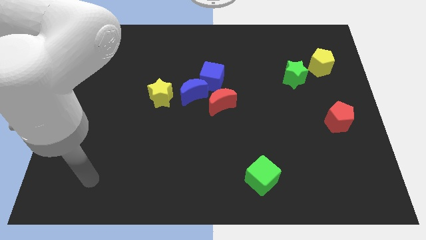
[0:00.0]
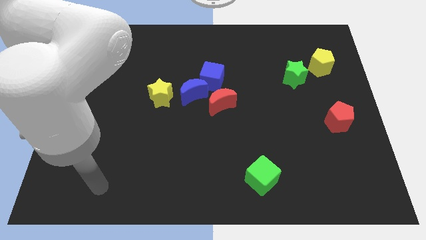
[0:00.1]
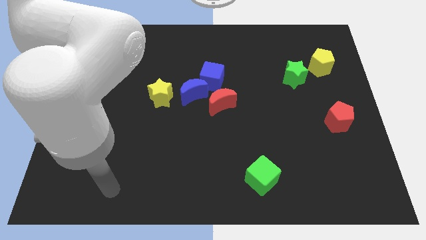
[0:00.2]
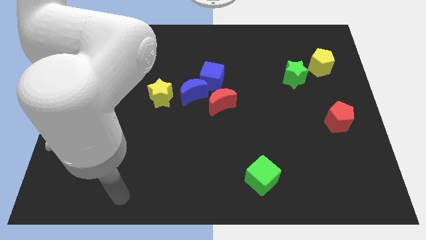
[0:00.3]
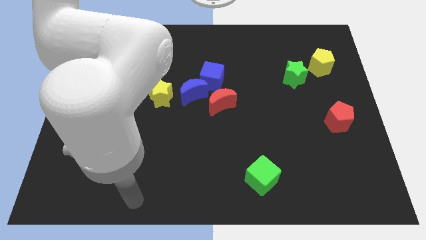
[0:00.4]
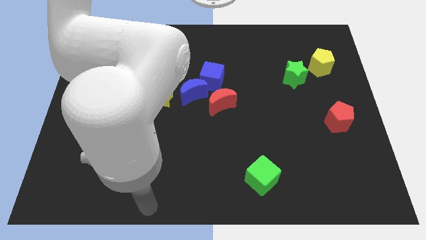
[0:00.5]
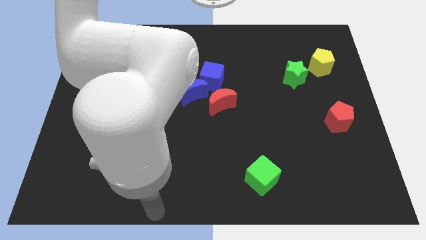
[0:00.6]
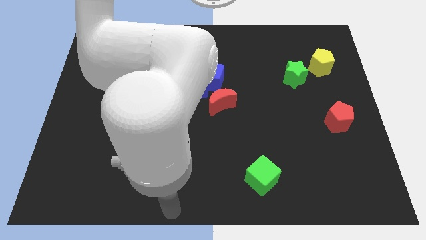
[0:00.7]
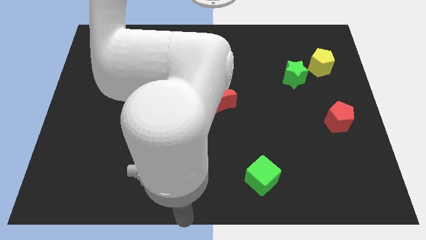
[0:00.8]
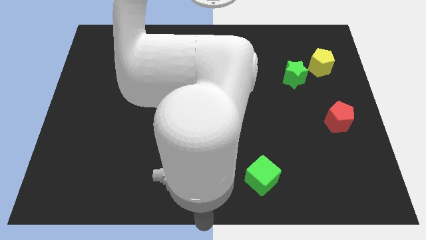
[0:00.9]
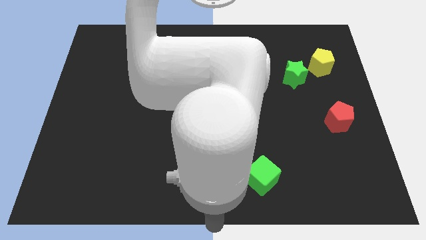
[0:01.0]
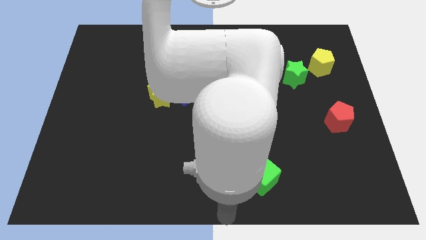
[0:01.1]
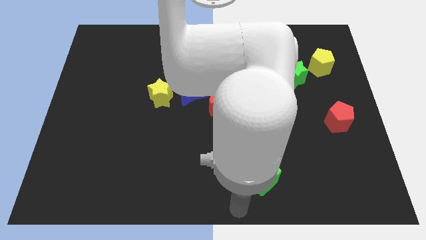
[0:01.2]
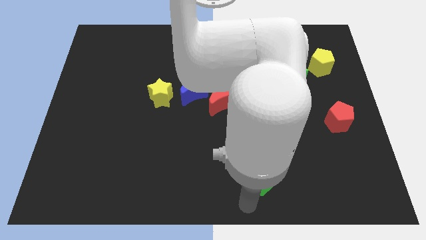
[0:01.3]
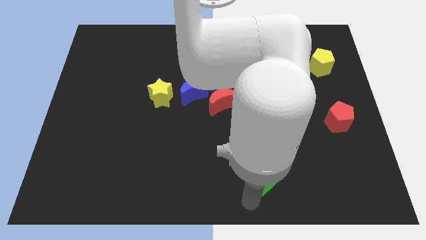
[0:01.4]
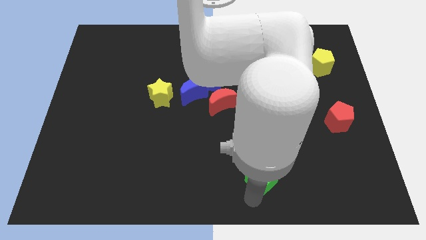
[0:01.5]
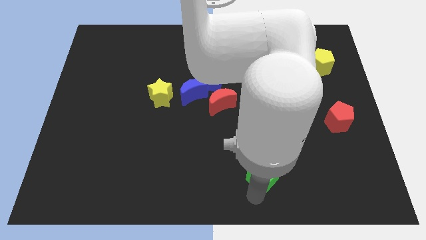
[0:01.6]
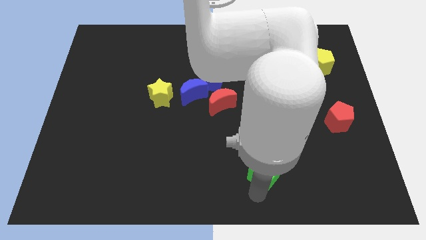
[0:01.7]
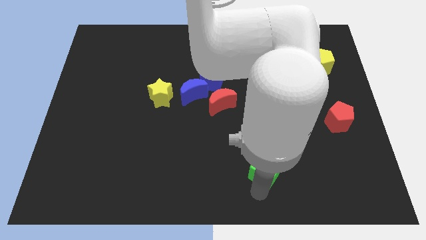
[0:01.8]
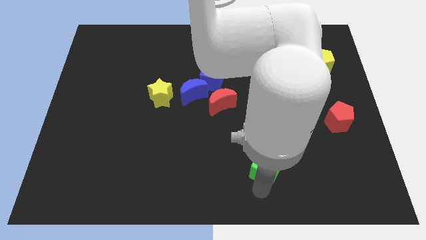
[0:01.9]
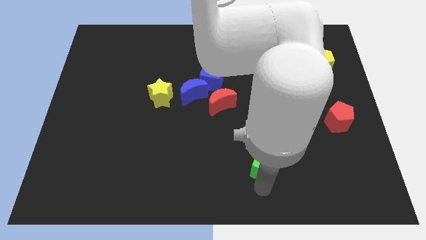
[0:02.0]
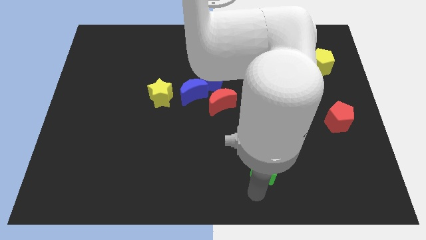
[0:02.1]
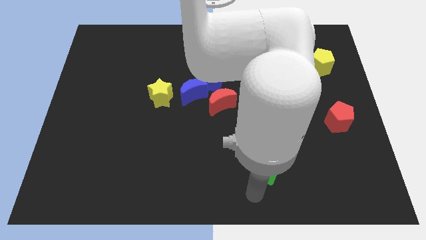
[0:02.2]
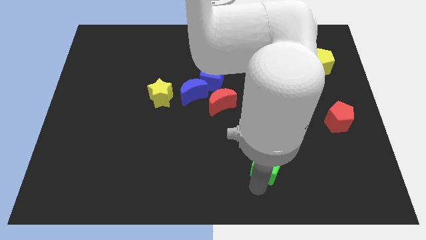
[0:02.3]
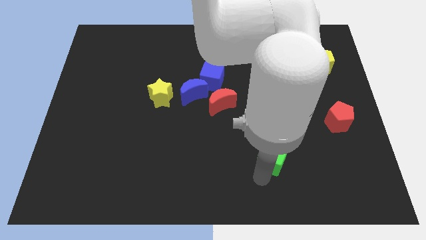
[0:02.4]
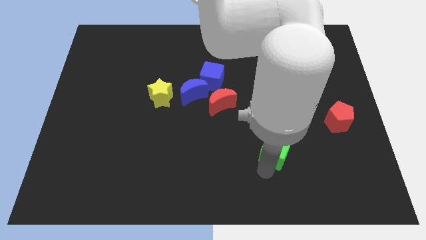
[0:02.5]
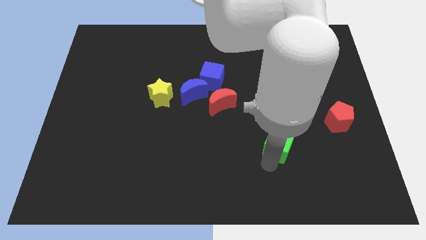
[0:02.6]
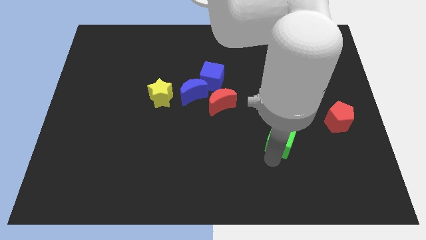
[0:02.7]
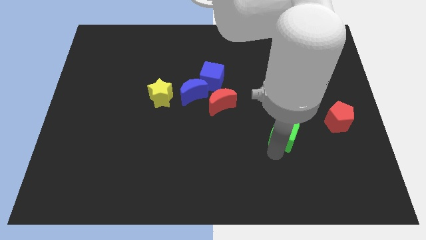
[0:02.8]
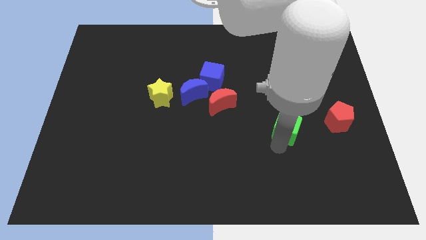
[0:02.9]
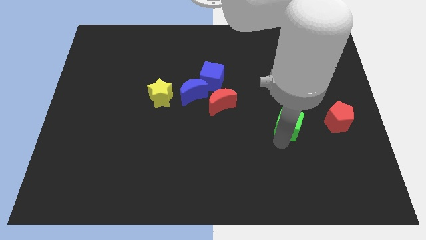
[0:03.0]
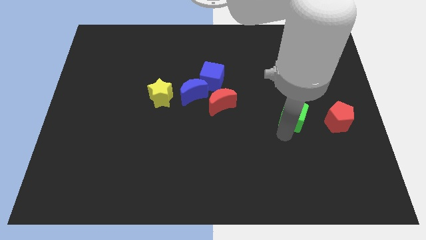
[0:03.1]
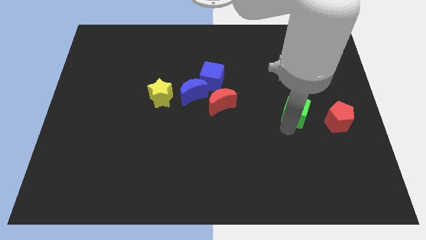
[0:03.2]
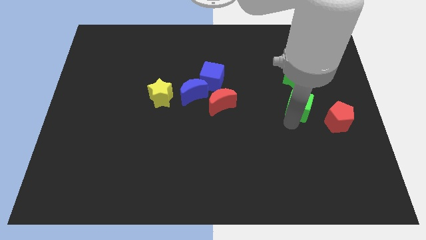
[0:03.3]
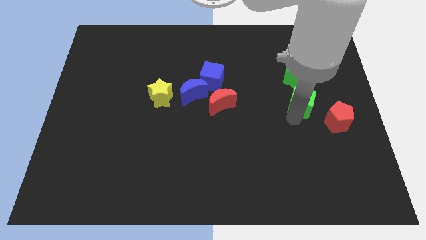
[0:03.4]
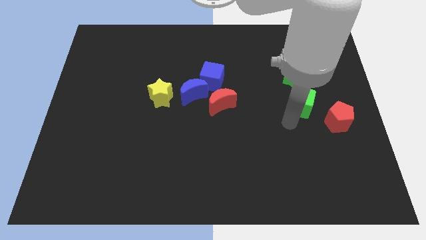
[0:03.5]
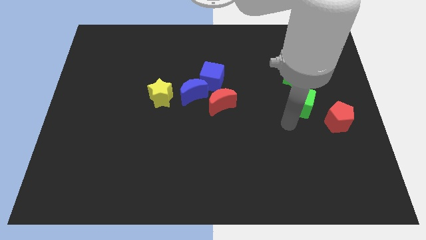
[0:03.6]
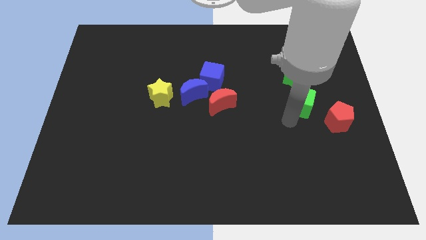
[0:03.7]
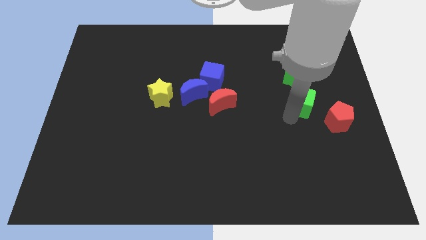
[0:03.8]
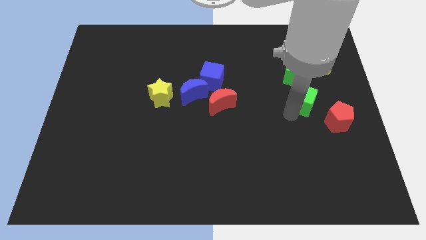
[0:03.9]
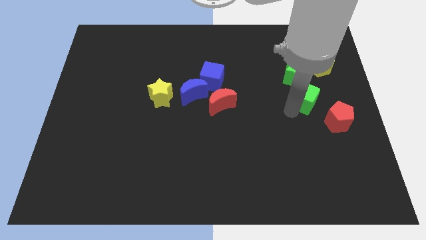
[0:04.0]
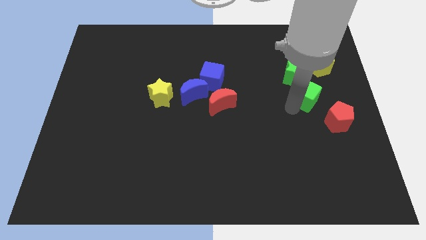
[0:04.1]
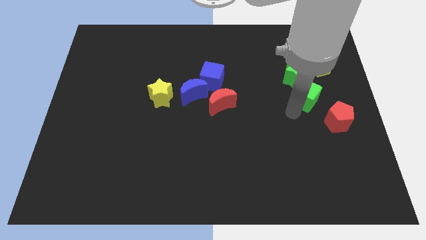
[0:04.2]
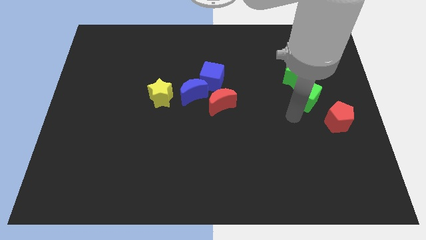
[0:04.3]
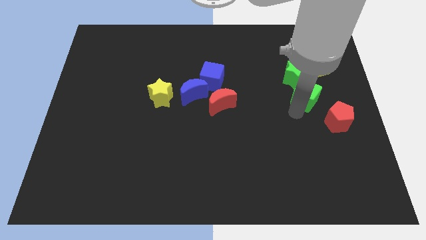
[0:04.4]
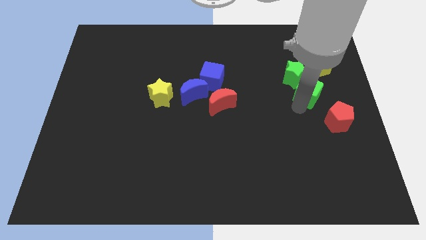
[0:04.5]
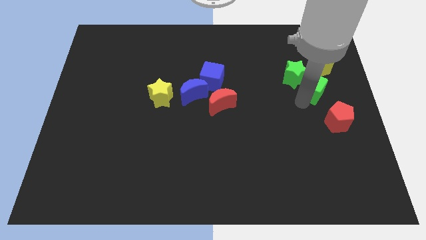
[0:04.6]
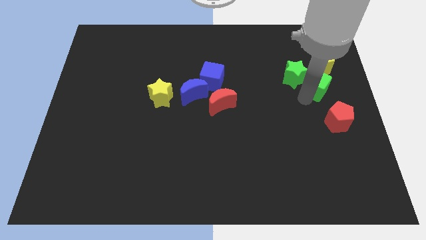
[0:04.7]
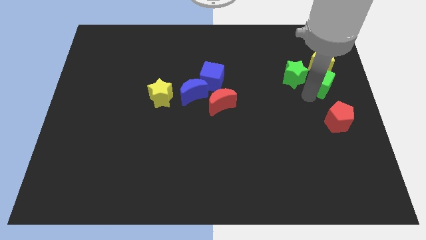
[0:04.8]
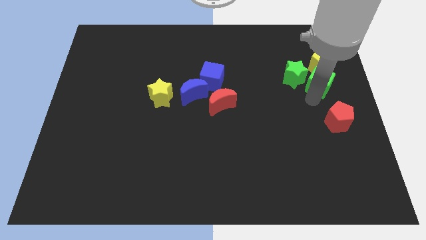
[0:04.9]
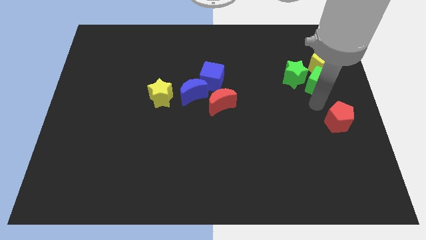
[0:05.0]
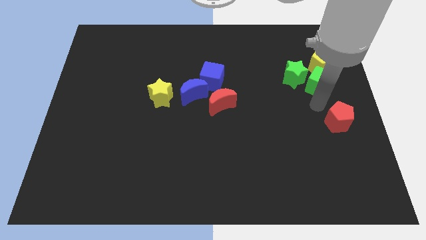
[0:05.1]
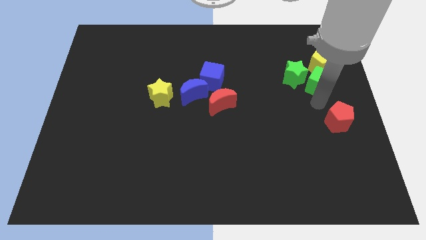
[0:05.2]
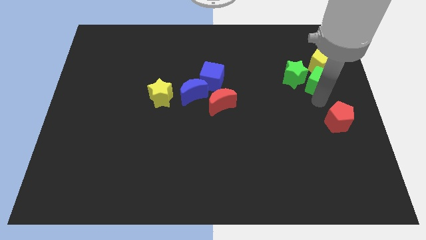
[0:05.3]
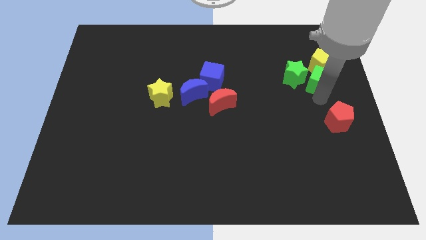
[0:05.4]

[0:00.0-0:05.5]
slide the green cube close to the yellow pentagon

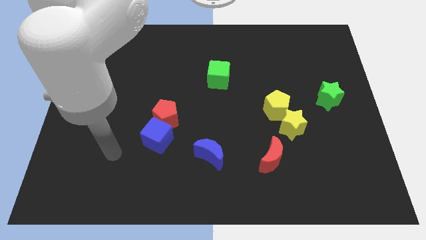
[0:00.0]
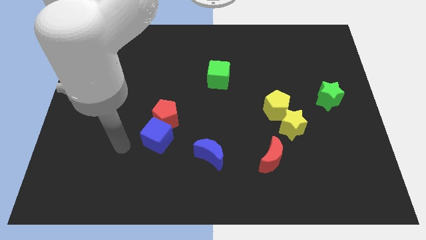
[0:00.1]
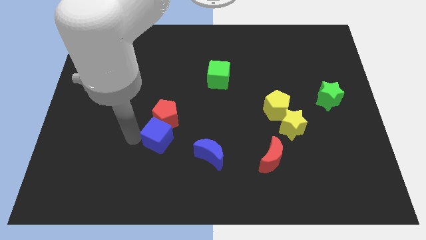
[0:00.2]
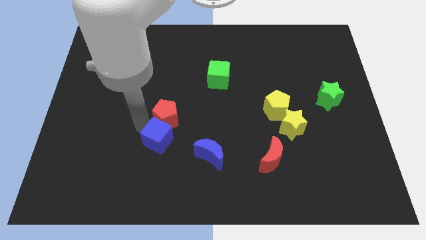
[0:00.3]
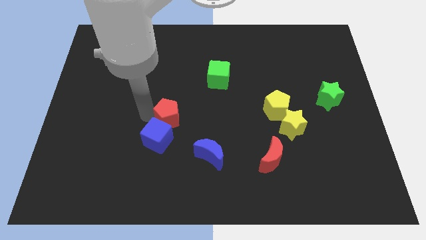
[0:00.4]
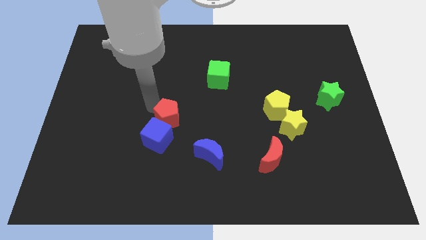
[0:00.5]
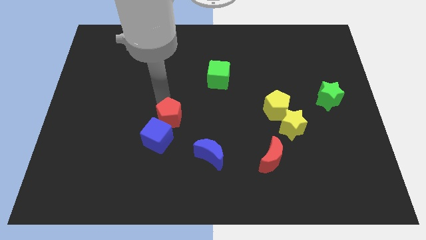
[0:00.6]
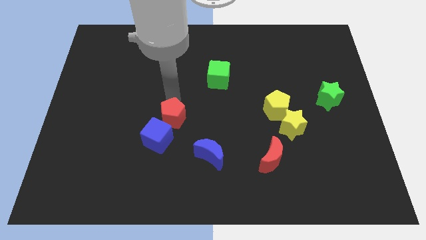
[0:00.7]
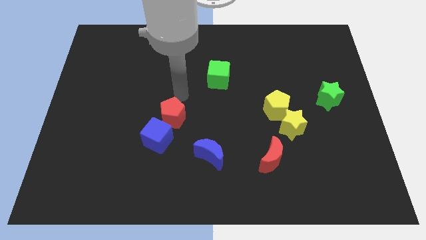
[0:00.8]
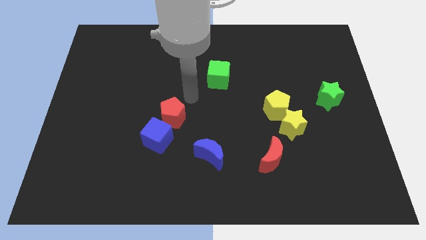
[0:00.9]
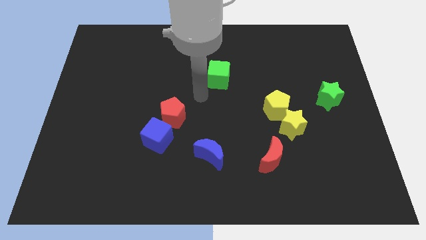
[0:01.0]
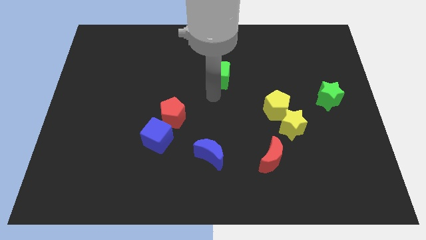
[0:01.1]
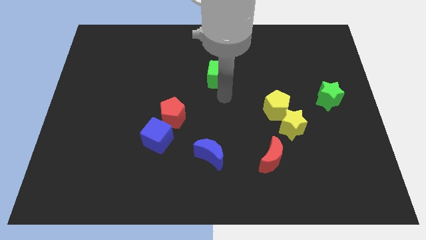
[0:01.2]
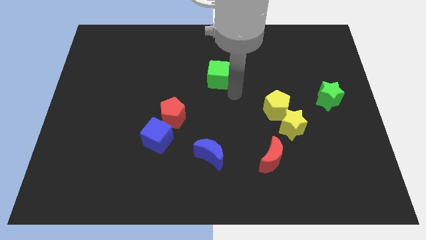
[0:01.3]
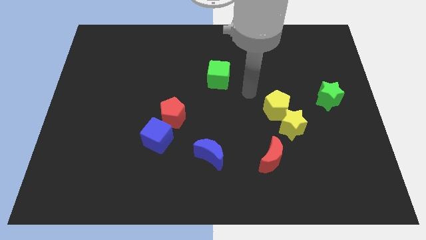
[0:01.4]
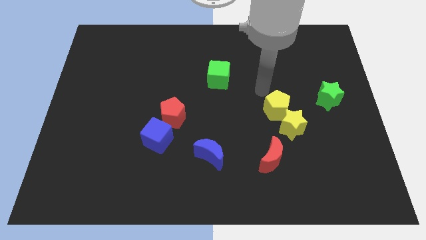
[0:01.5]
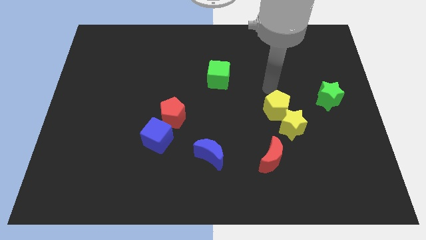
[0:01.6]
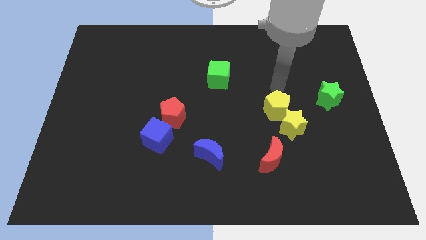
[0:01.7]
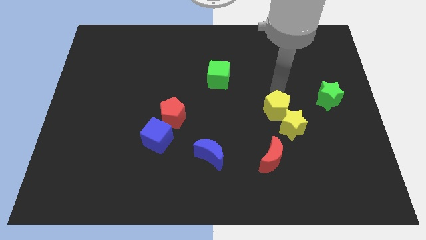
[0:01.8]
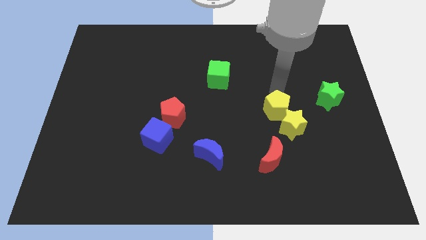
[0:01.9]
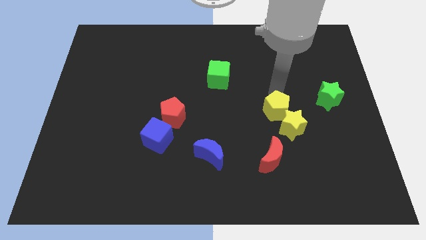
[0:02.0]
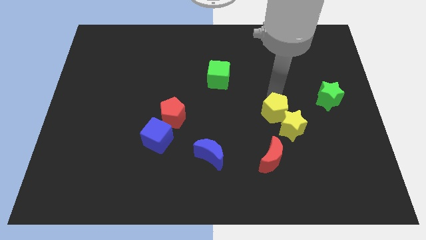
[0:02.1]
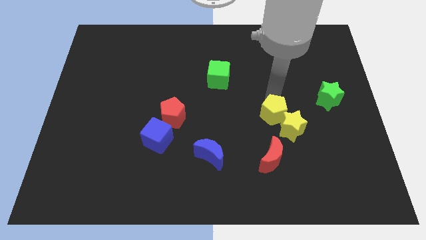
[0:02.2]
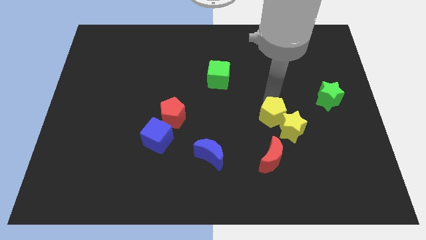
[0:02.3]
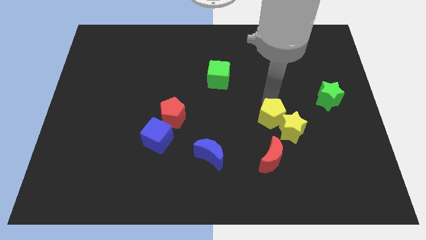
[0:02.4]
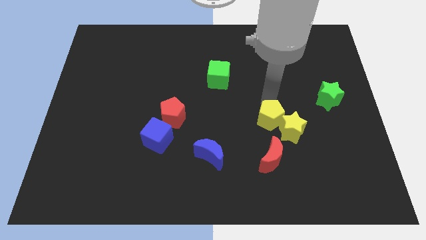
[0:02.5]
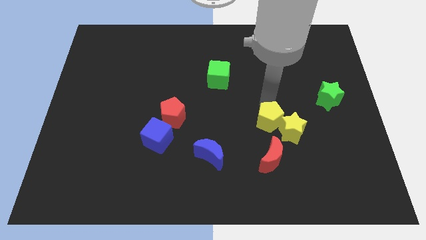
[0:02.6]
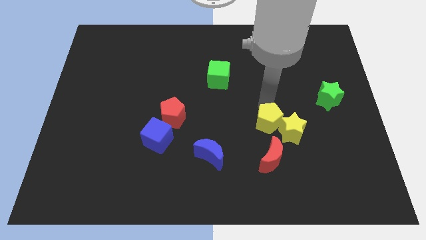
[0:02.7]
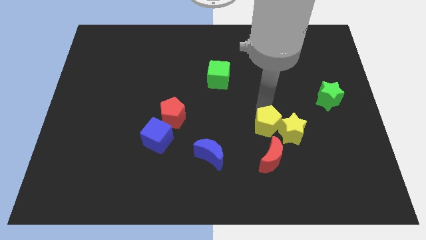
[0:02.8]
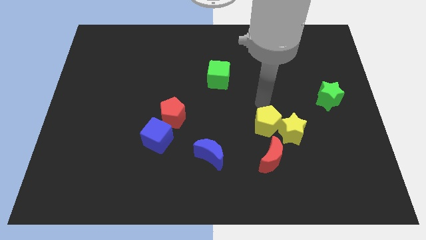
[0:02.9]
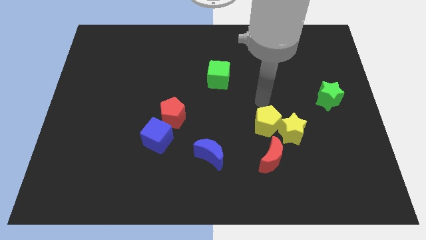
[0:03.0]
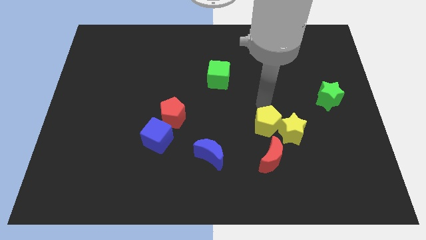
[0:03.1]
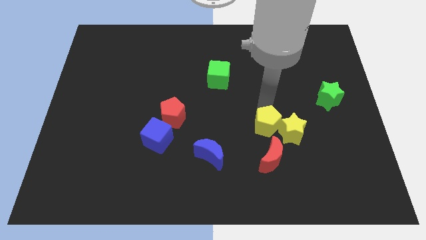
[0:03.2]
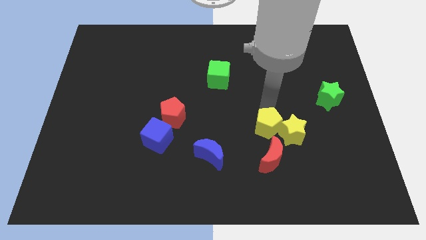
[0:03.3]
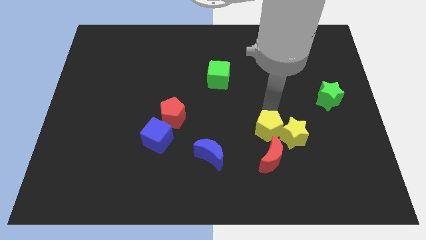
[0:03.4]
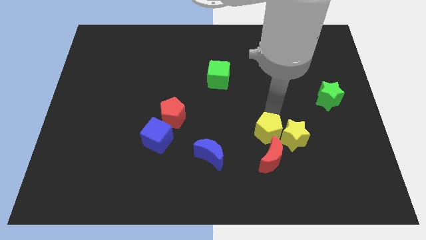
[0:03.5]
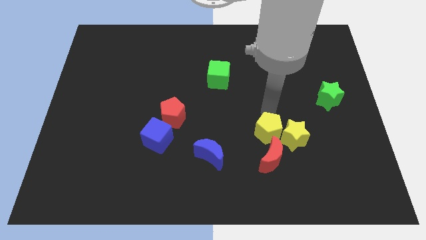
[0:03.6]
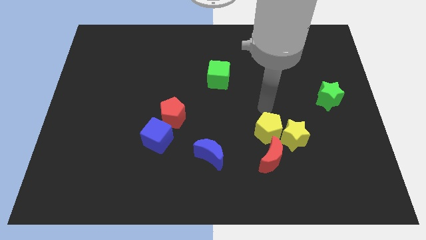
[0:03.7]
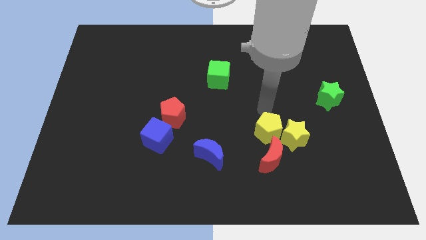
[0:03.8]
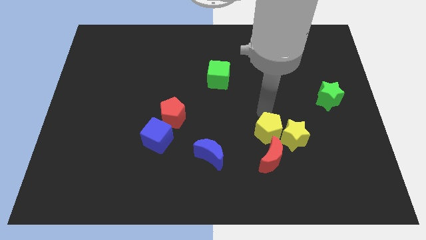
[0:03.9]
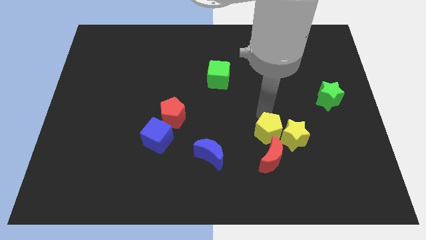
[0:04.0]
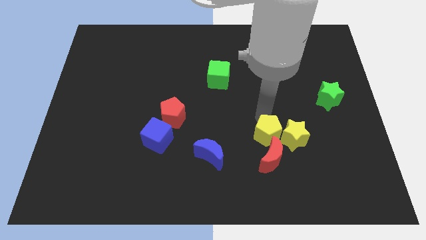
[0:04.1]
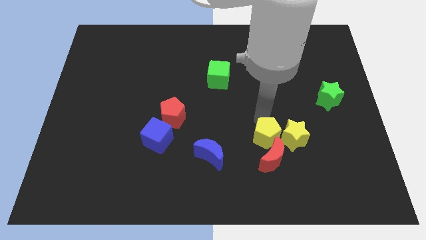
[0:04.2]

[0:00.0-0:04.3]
move the yellow pentagon to the red moon
